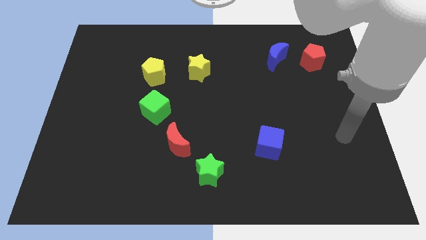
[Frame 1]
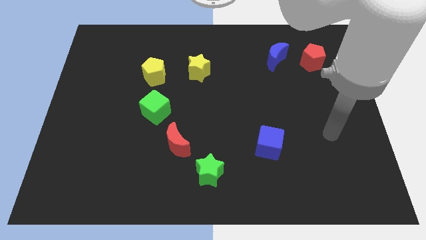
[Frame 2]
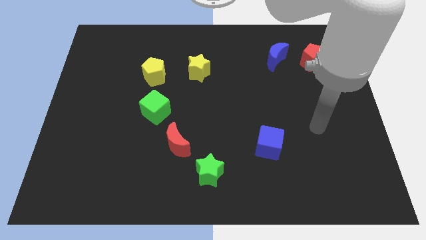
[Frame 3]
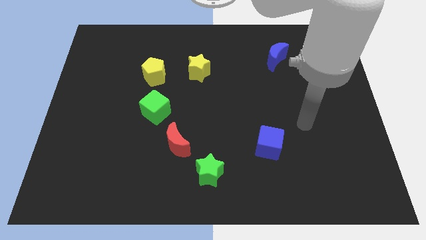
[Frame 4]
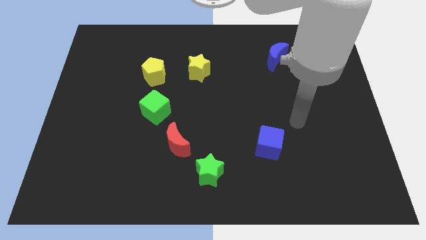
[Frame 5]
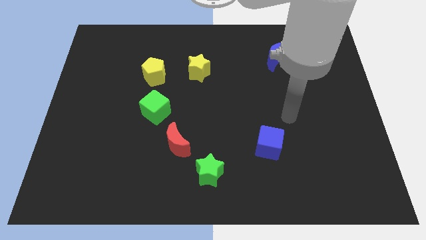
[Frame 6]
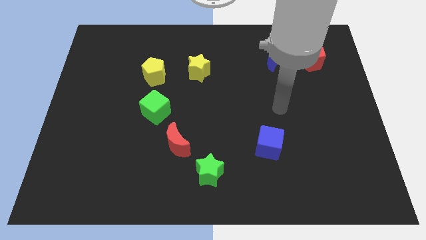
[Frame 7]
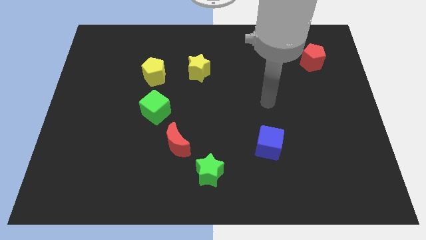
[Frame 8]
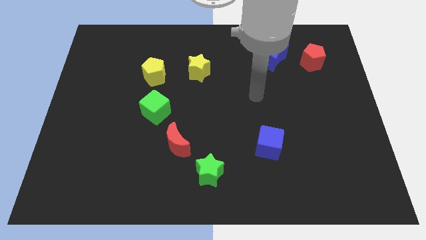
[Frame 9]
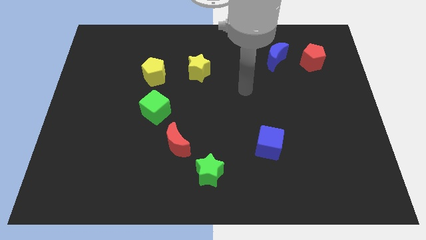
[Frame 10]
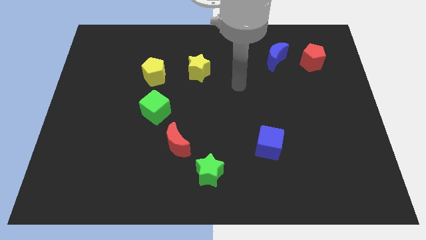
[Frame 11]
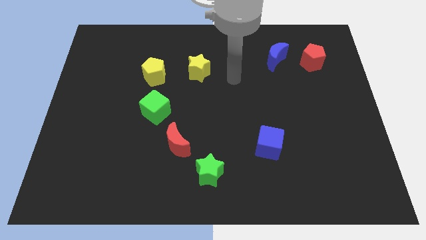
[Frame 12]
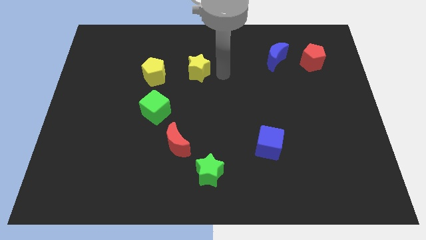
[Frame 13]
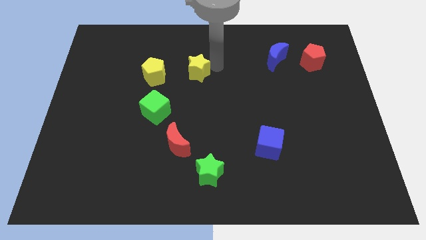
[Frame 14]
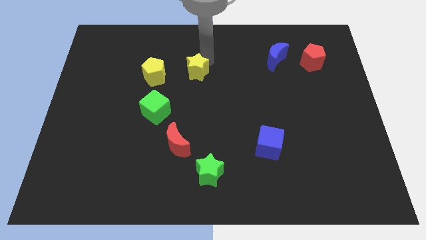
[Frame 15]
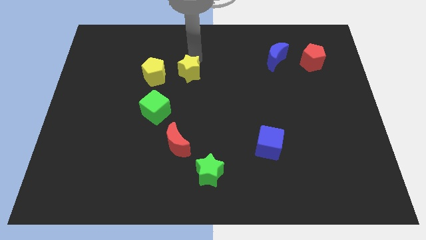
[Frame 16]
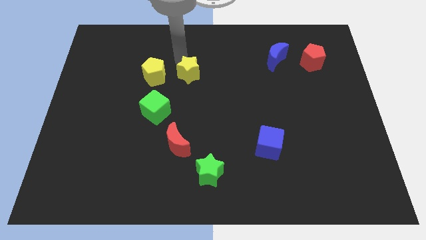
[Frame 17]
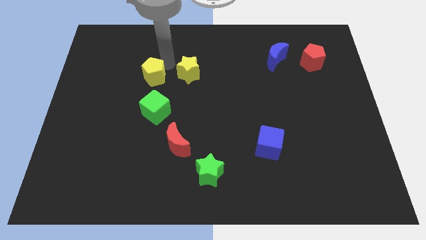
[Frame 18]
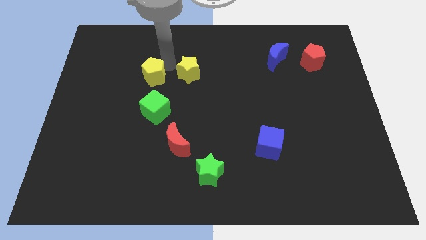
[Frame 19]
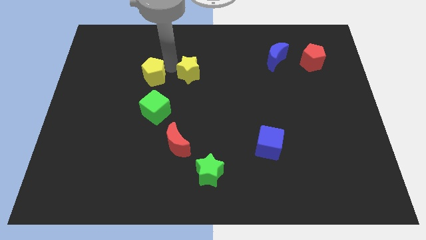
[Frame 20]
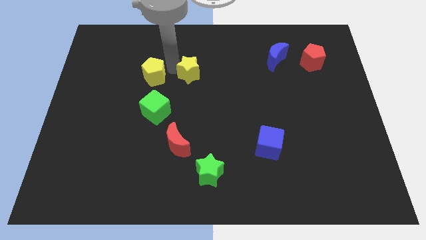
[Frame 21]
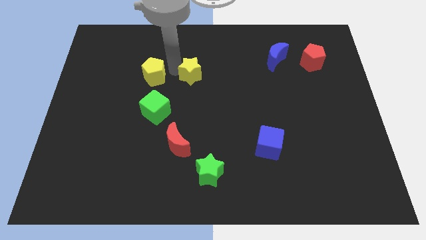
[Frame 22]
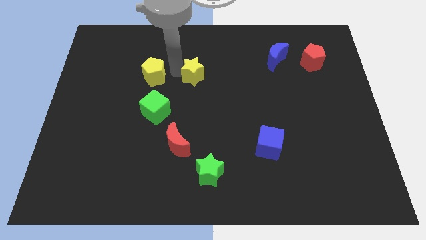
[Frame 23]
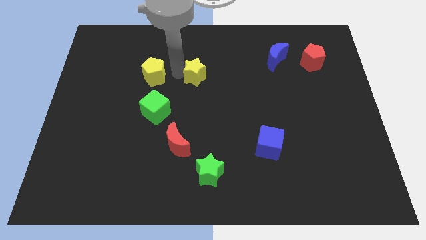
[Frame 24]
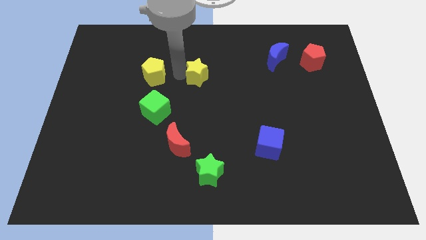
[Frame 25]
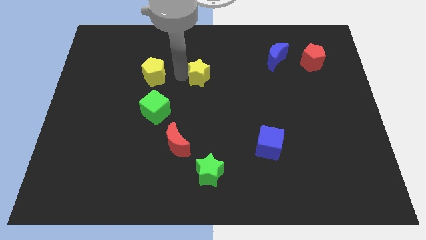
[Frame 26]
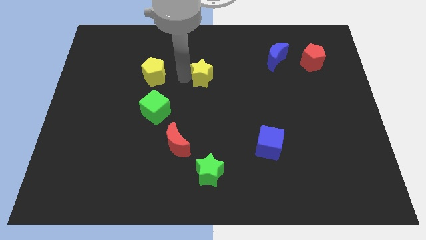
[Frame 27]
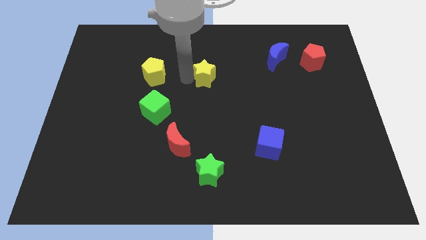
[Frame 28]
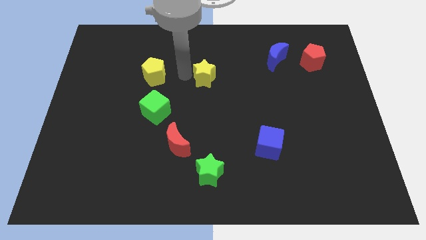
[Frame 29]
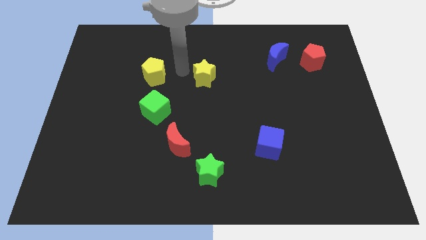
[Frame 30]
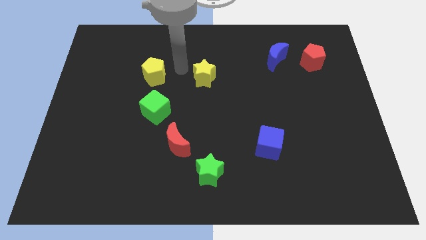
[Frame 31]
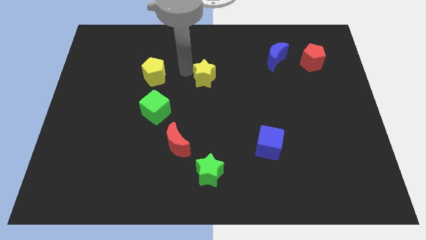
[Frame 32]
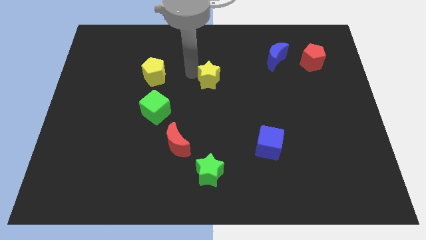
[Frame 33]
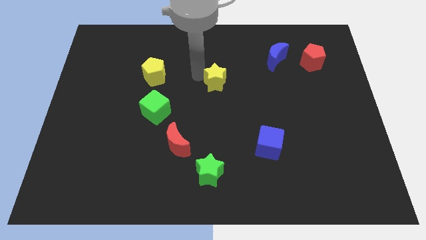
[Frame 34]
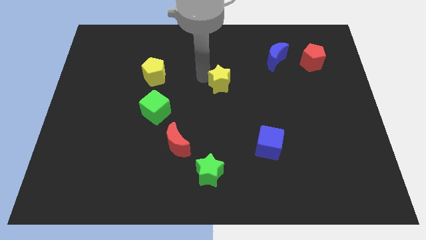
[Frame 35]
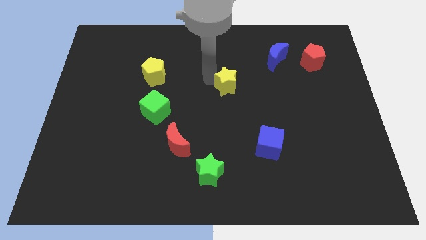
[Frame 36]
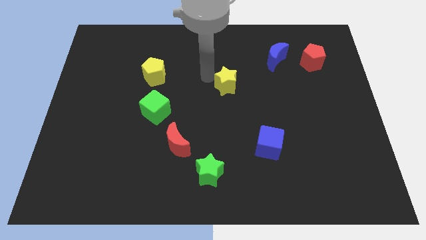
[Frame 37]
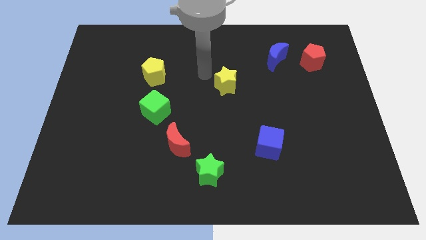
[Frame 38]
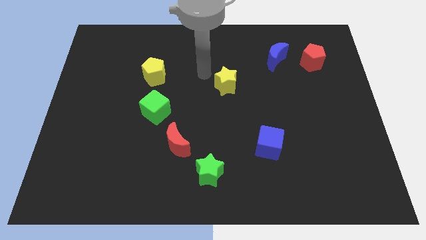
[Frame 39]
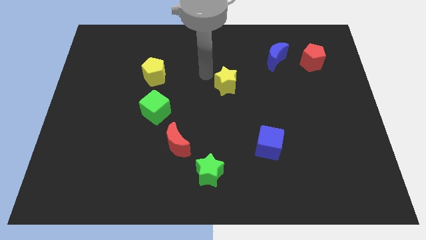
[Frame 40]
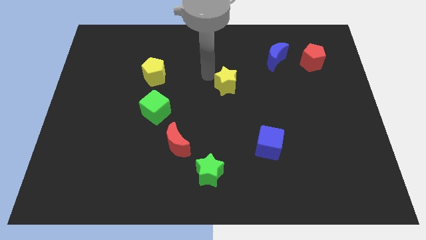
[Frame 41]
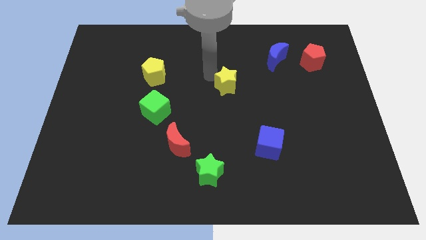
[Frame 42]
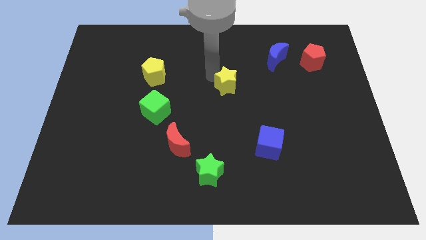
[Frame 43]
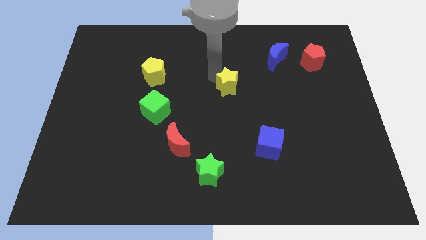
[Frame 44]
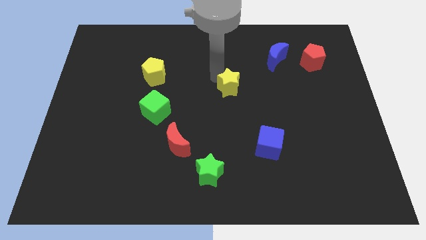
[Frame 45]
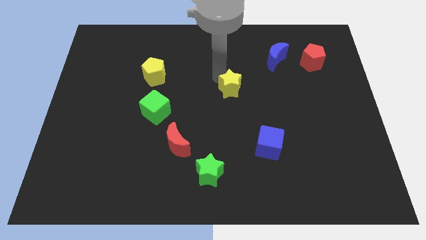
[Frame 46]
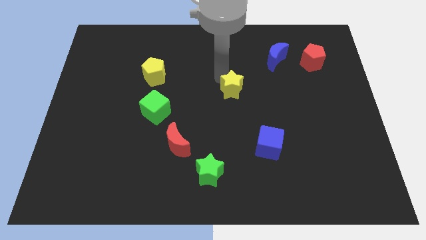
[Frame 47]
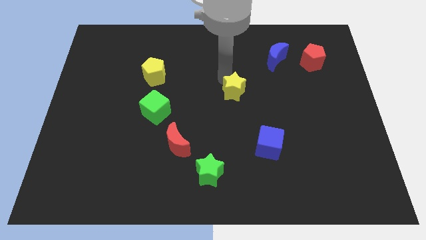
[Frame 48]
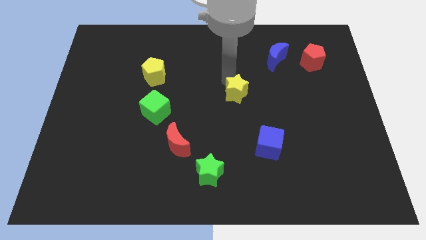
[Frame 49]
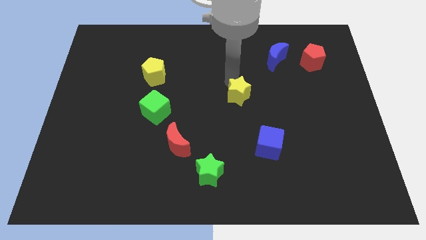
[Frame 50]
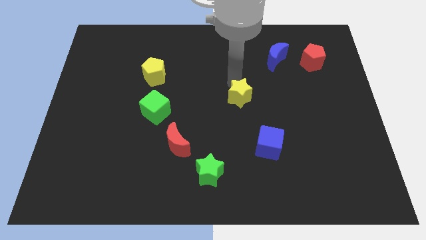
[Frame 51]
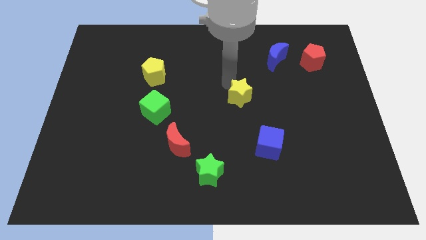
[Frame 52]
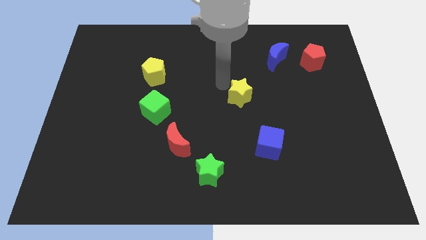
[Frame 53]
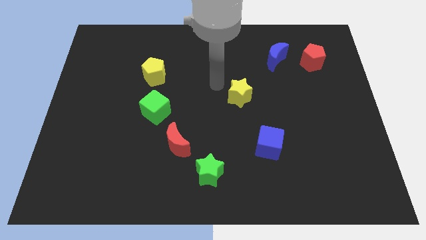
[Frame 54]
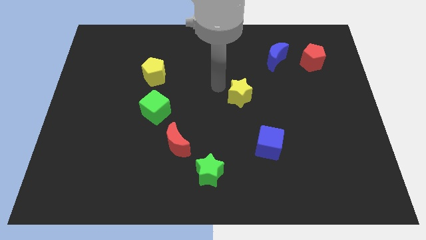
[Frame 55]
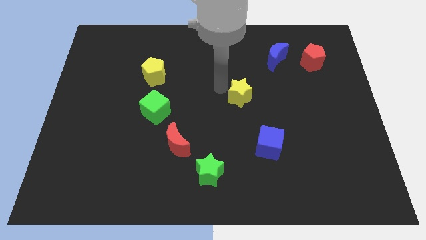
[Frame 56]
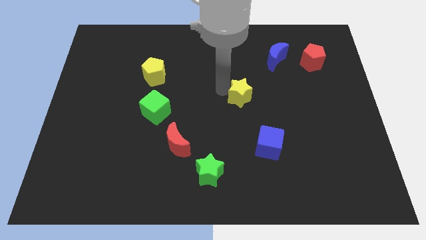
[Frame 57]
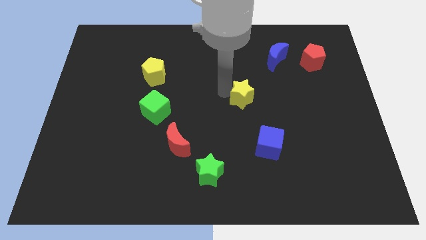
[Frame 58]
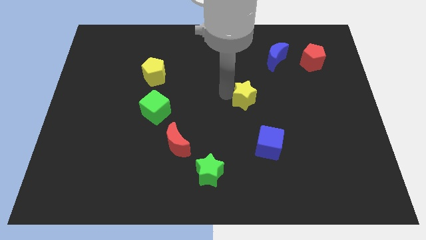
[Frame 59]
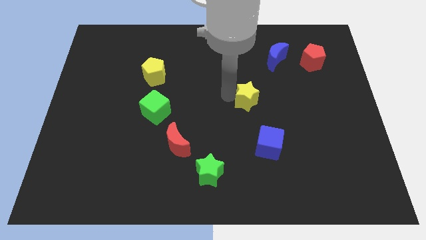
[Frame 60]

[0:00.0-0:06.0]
move the yellow star to the top of the blue cube

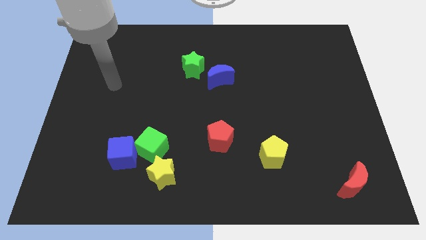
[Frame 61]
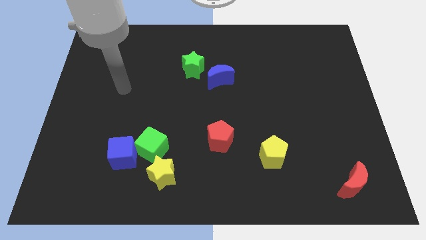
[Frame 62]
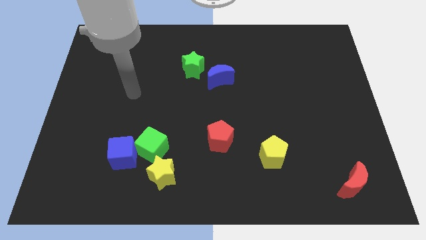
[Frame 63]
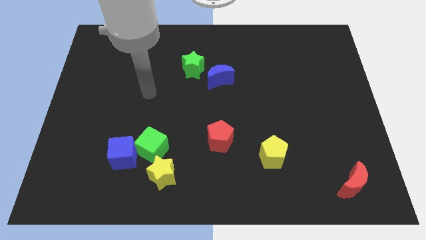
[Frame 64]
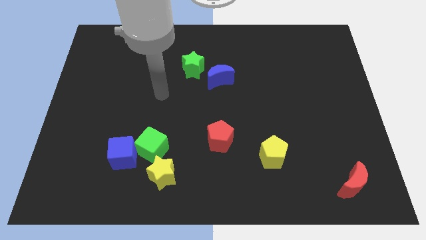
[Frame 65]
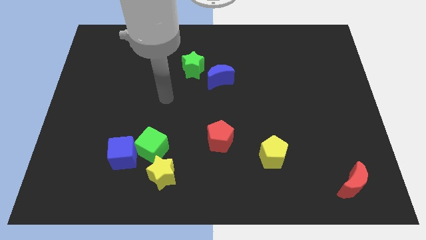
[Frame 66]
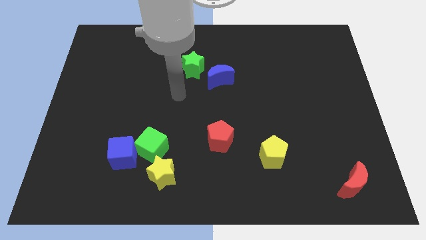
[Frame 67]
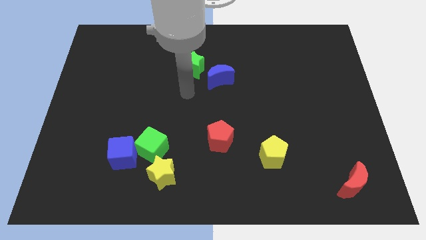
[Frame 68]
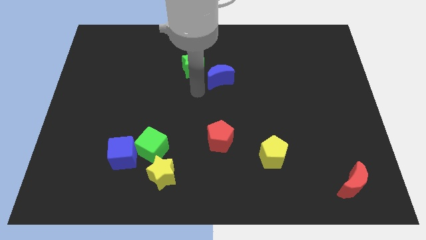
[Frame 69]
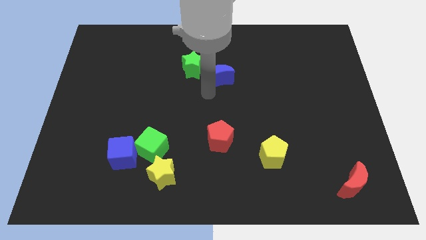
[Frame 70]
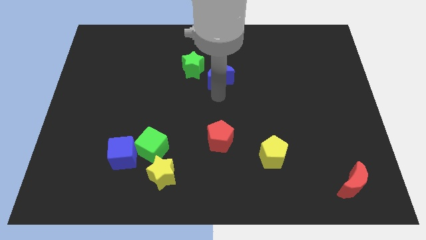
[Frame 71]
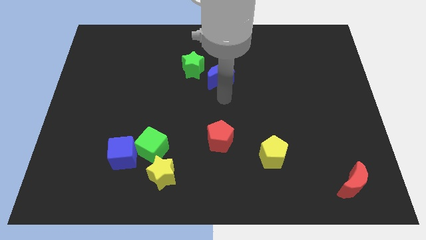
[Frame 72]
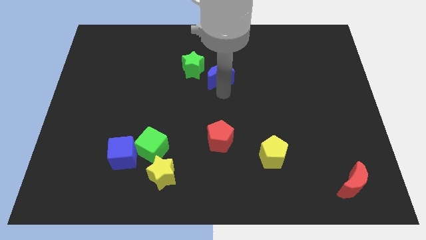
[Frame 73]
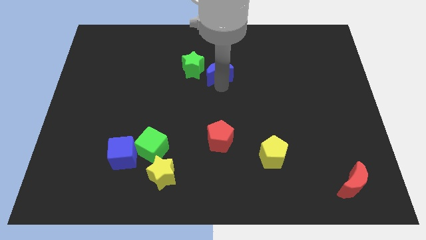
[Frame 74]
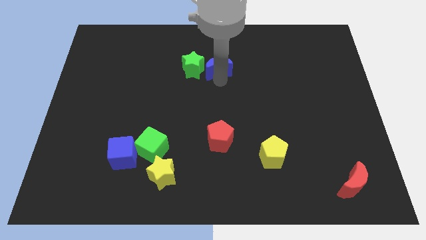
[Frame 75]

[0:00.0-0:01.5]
push the blue moon to the top right of the green star

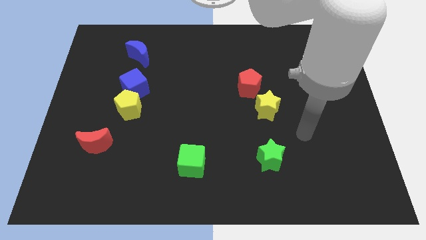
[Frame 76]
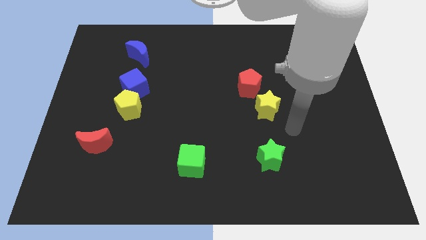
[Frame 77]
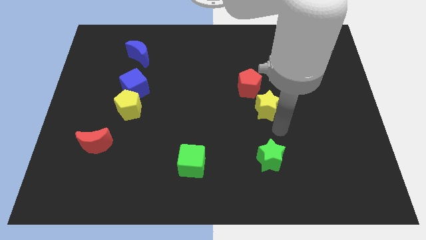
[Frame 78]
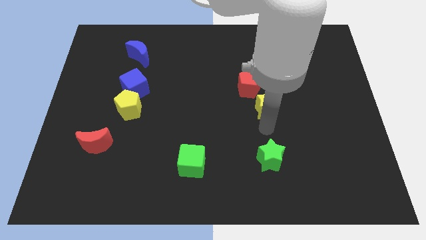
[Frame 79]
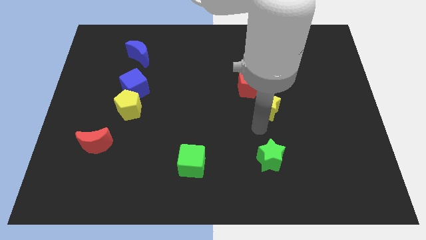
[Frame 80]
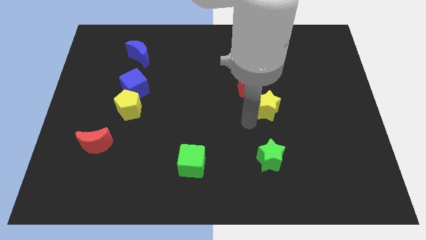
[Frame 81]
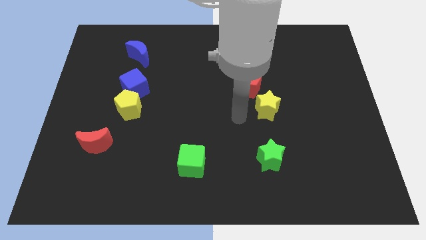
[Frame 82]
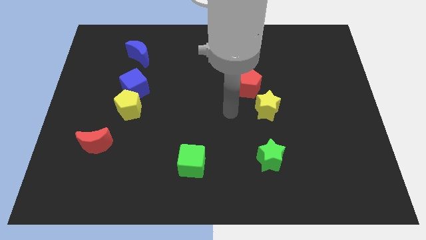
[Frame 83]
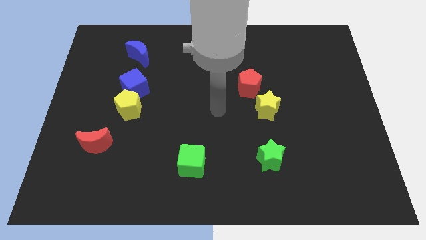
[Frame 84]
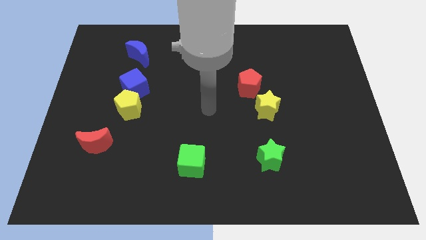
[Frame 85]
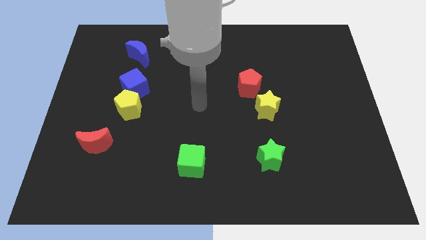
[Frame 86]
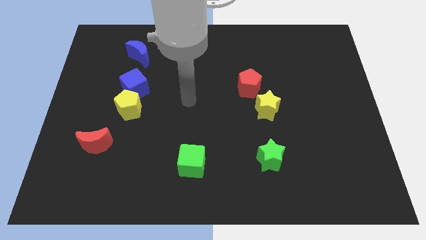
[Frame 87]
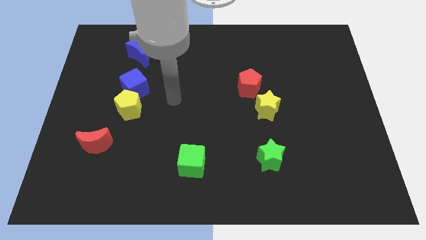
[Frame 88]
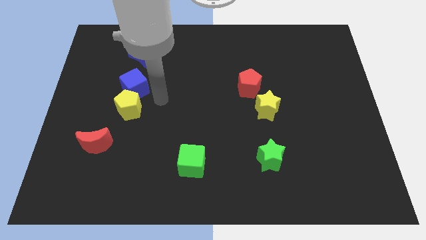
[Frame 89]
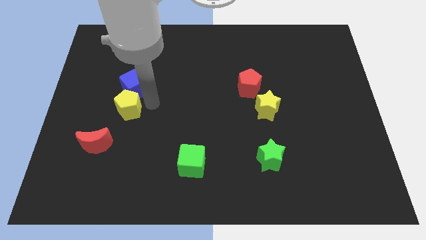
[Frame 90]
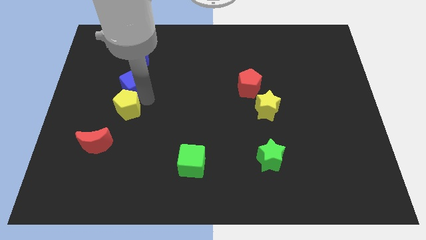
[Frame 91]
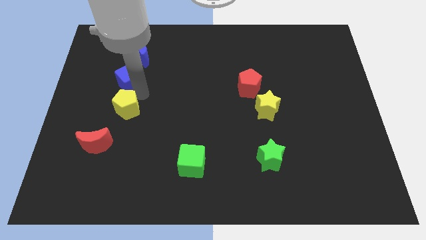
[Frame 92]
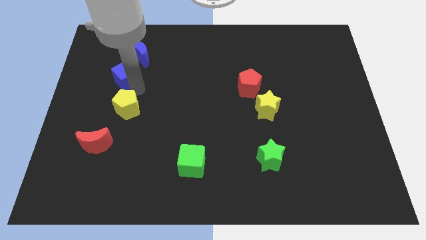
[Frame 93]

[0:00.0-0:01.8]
push the blue cube to the bottom left of the blue moon
